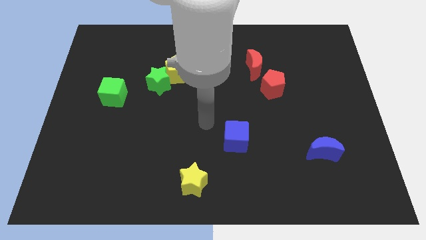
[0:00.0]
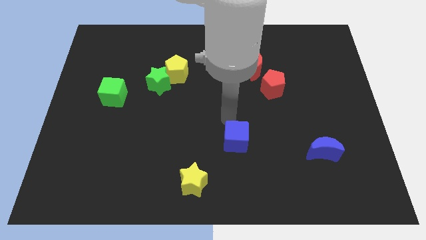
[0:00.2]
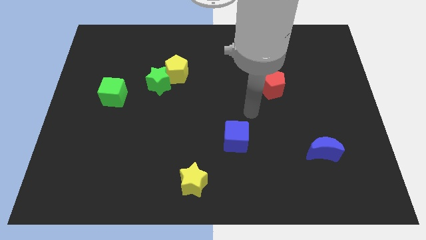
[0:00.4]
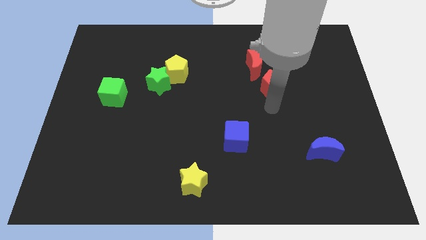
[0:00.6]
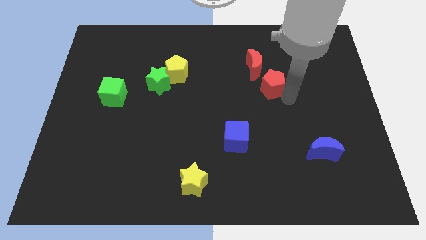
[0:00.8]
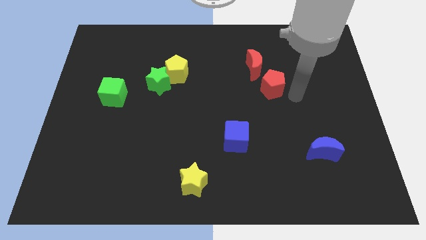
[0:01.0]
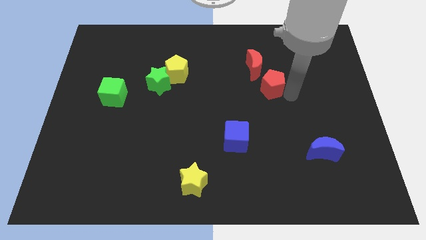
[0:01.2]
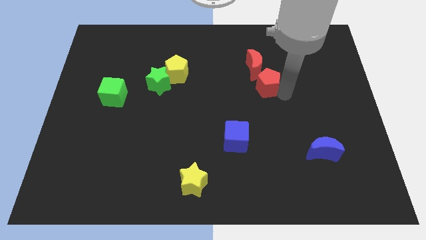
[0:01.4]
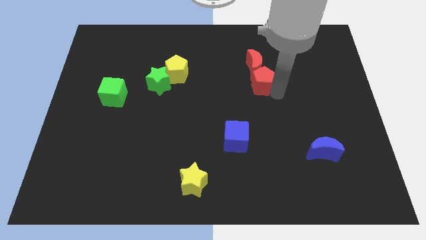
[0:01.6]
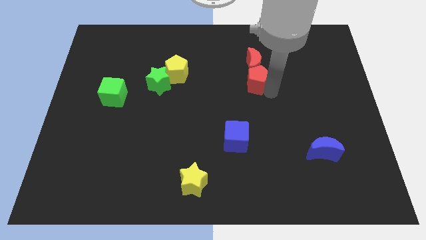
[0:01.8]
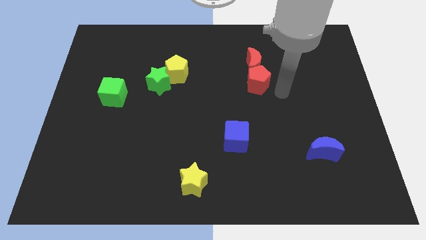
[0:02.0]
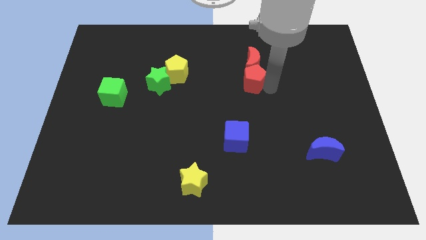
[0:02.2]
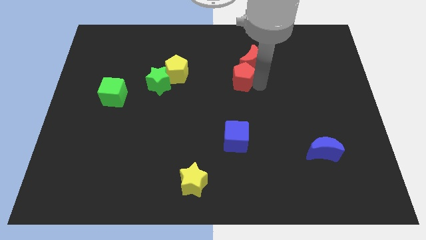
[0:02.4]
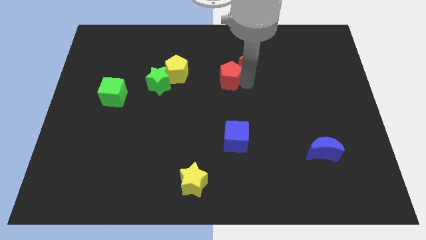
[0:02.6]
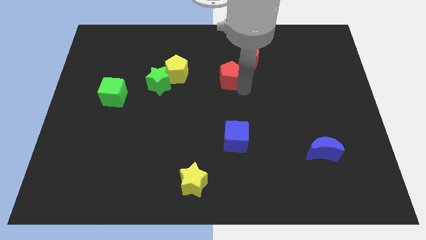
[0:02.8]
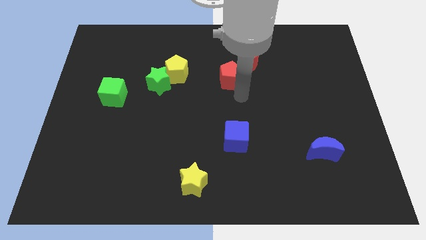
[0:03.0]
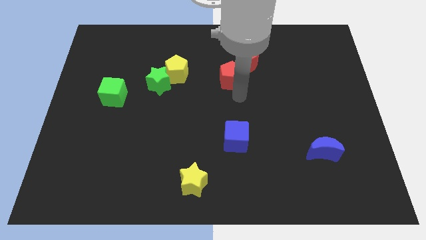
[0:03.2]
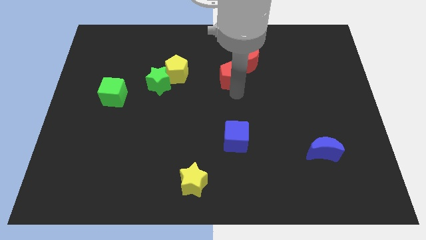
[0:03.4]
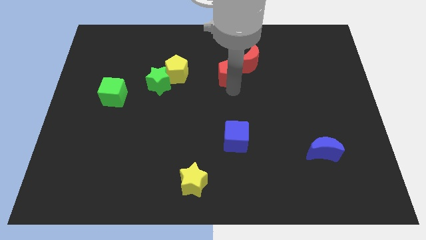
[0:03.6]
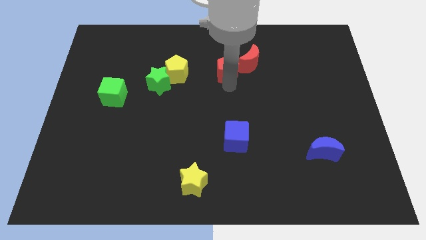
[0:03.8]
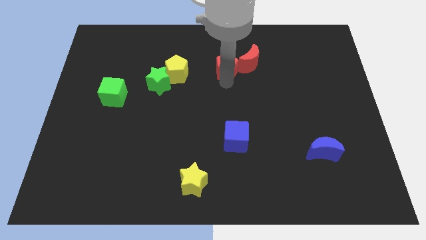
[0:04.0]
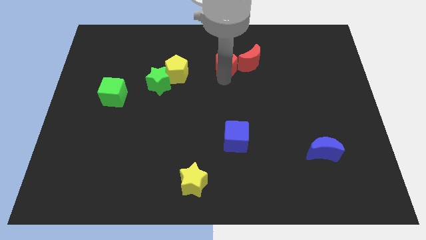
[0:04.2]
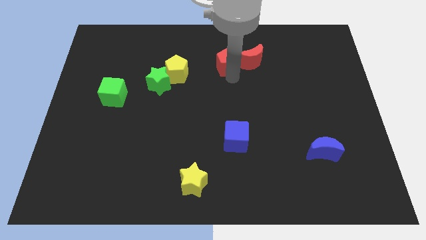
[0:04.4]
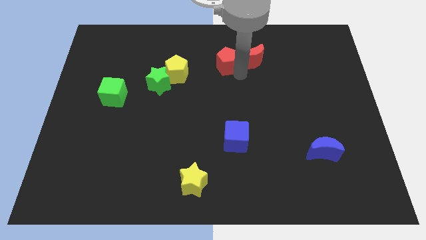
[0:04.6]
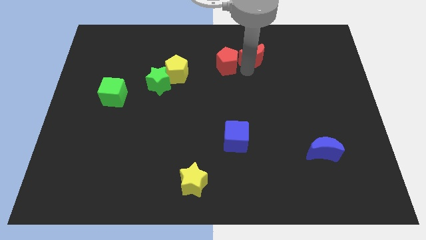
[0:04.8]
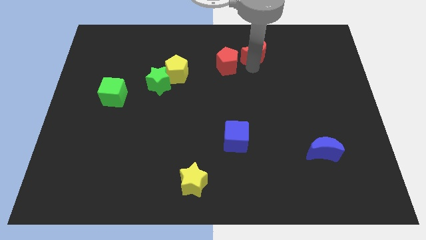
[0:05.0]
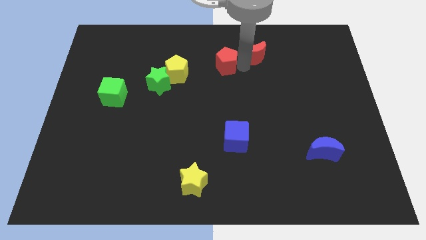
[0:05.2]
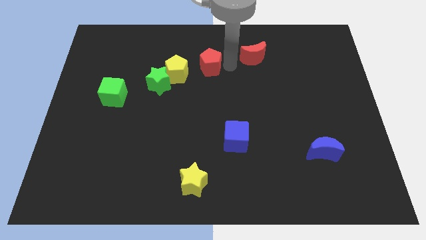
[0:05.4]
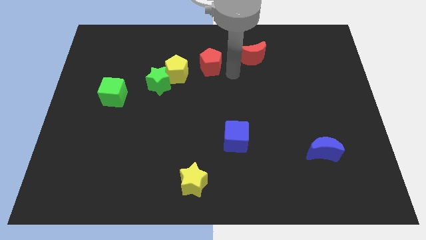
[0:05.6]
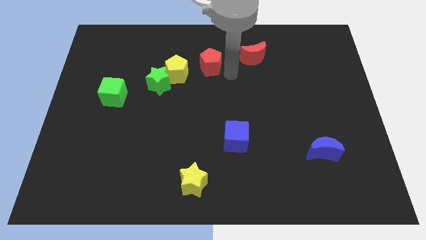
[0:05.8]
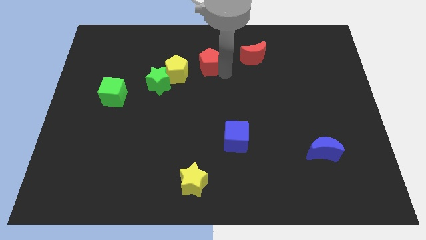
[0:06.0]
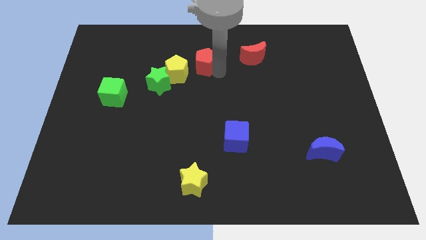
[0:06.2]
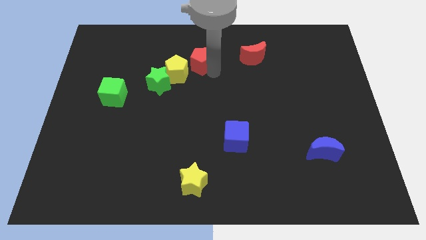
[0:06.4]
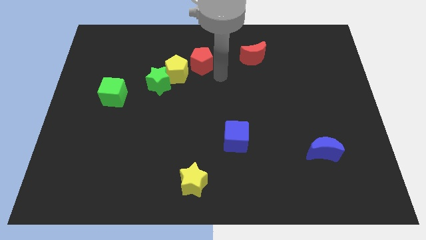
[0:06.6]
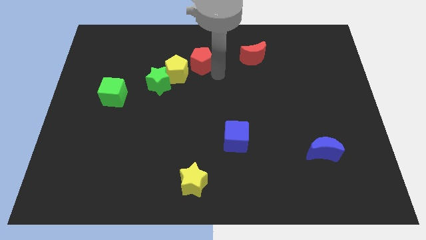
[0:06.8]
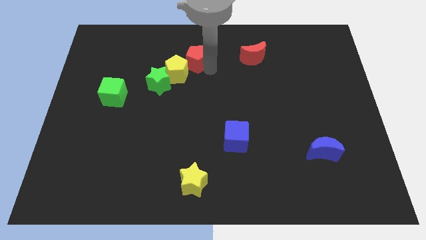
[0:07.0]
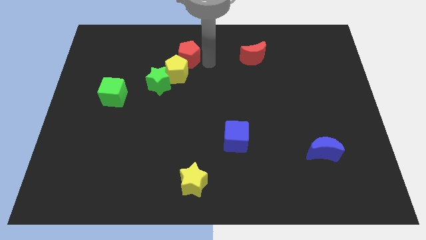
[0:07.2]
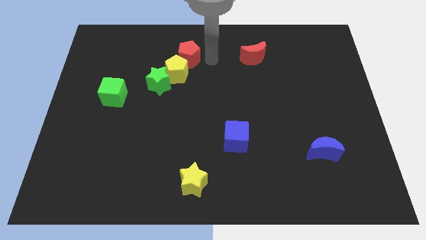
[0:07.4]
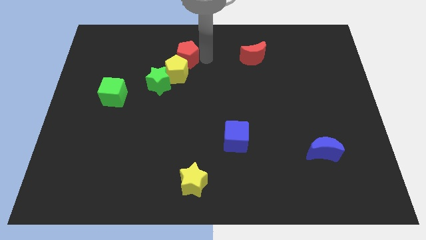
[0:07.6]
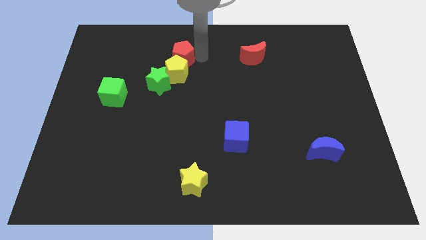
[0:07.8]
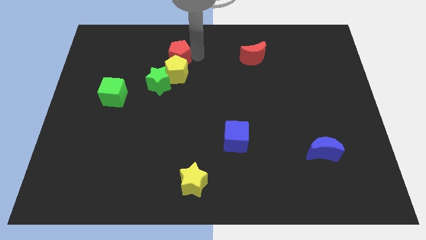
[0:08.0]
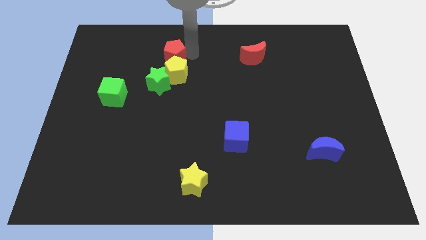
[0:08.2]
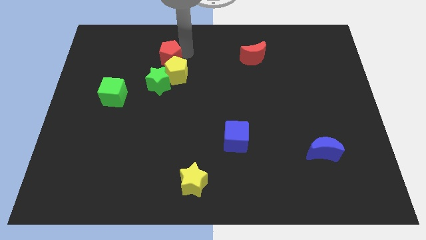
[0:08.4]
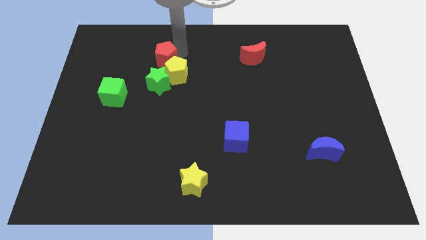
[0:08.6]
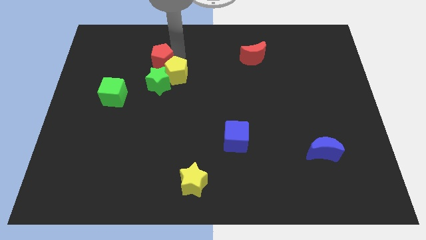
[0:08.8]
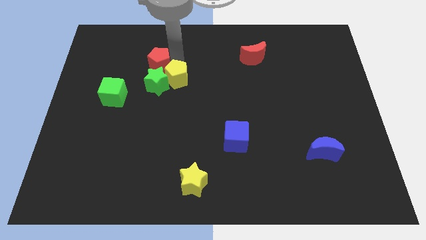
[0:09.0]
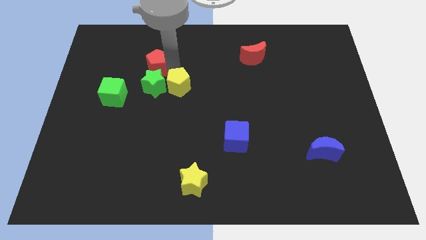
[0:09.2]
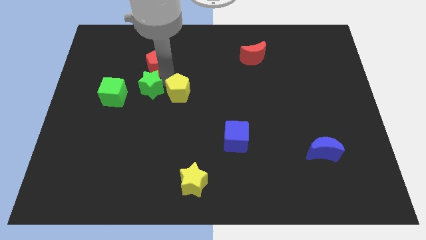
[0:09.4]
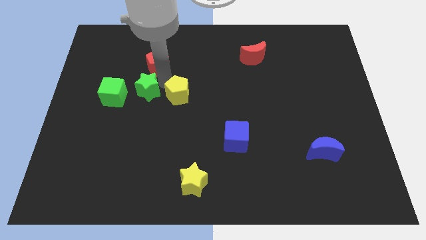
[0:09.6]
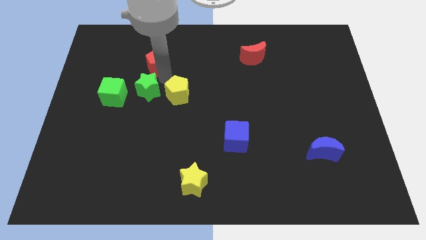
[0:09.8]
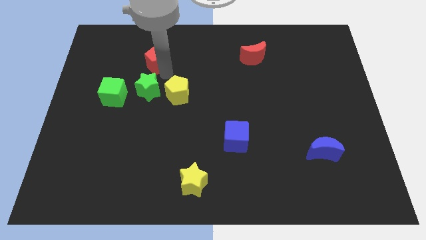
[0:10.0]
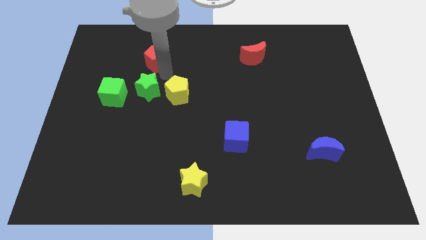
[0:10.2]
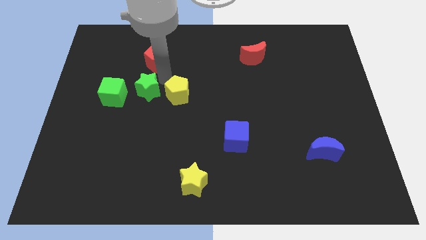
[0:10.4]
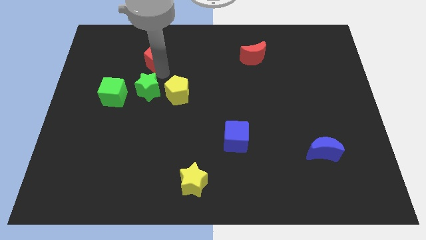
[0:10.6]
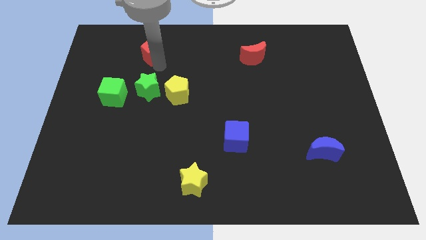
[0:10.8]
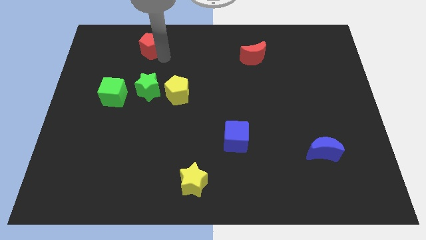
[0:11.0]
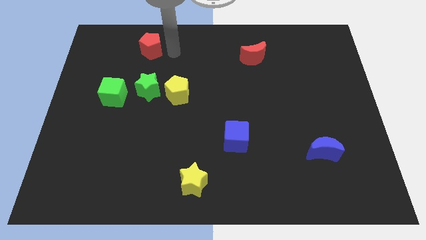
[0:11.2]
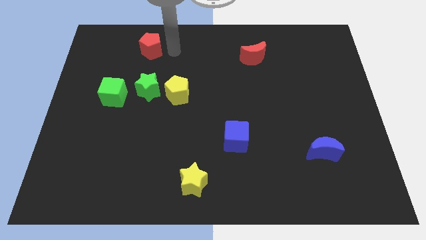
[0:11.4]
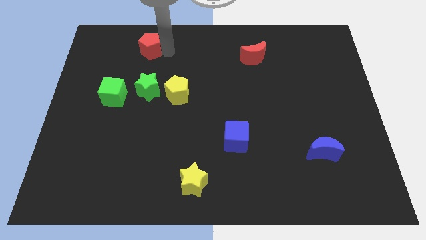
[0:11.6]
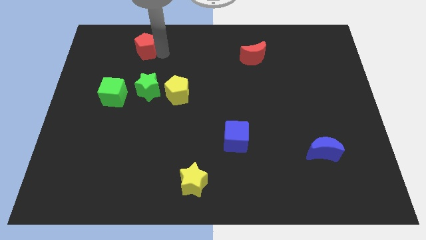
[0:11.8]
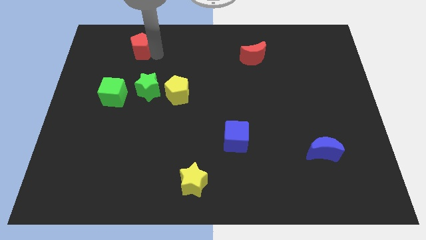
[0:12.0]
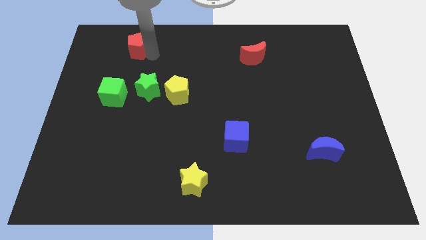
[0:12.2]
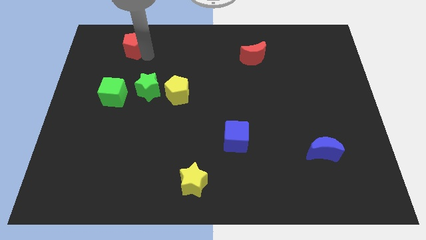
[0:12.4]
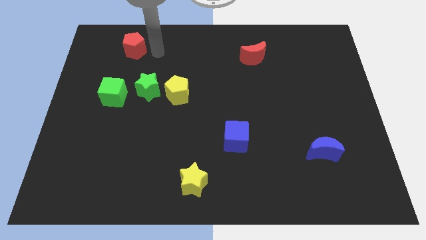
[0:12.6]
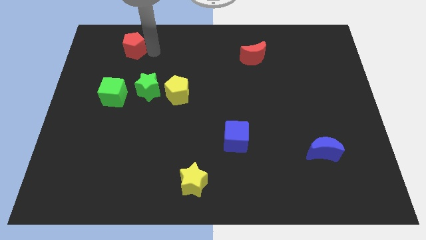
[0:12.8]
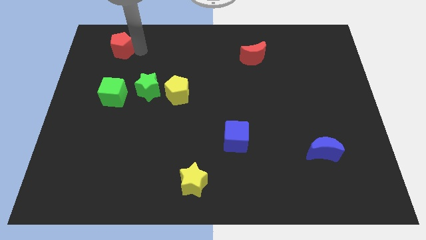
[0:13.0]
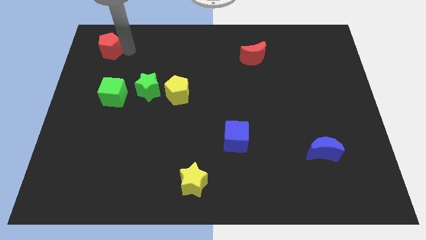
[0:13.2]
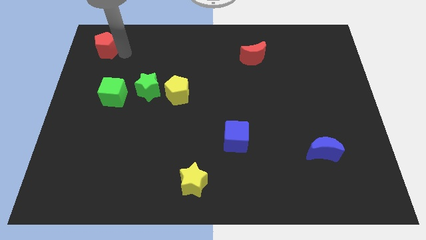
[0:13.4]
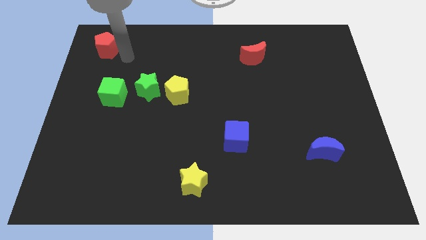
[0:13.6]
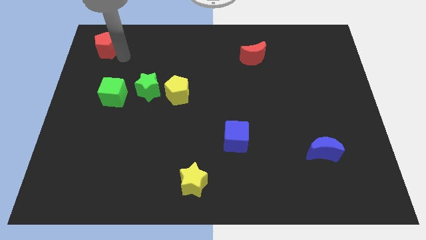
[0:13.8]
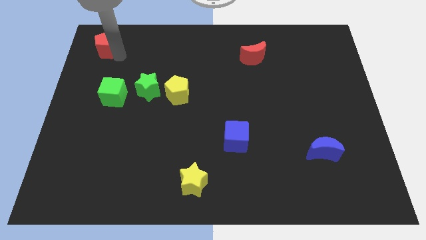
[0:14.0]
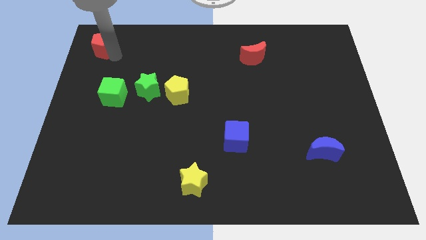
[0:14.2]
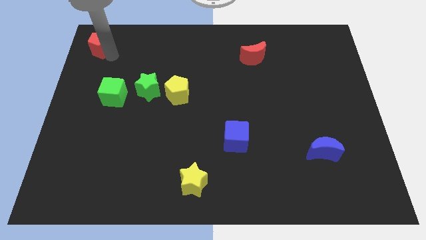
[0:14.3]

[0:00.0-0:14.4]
push the red pentagon to the upper left corner
